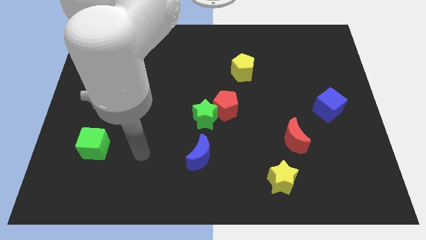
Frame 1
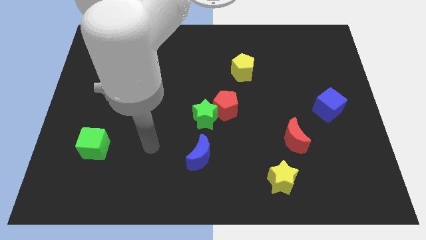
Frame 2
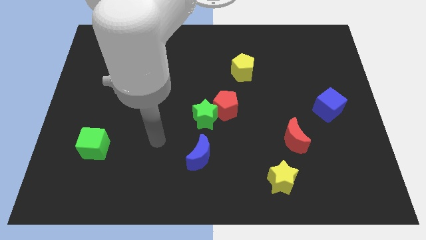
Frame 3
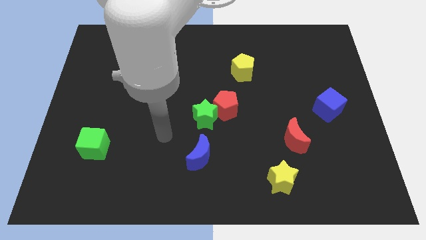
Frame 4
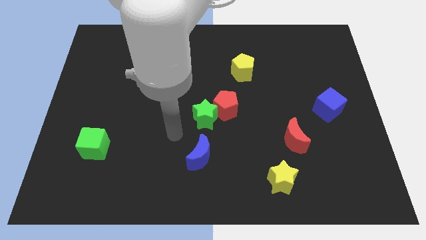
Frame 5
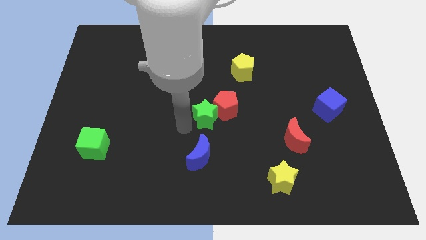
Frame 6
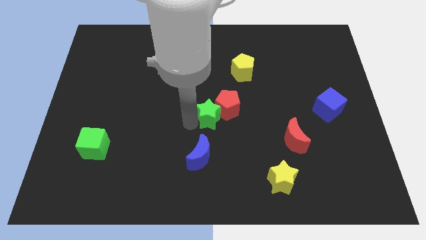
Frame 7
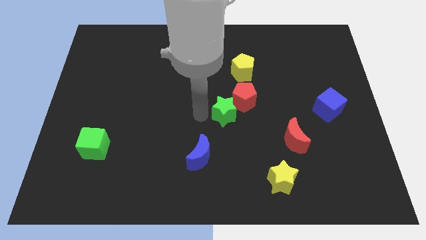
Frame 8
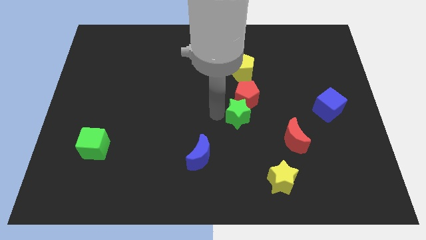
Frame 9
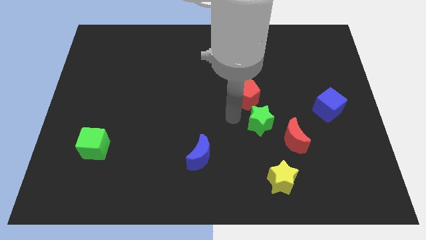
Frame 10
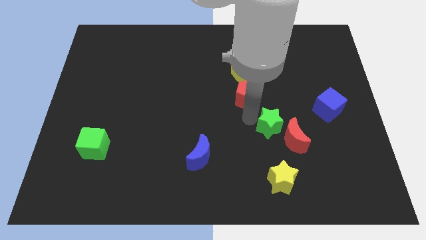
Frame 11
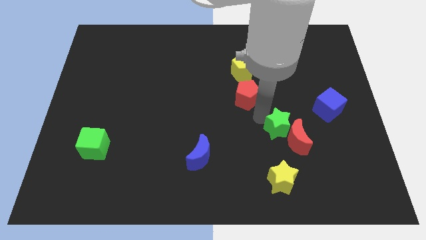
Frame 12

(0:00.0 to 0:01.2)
move the red pentagon away from the green star

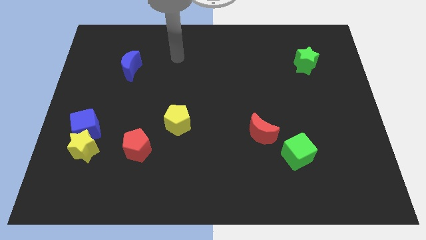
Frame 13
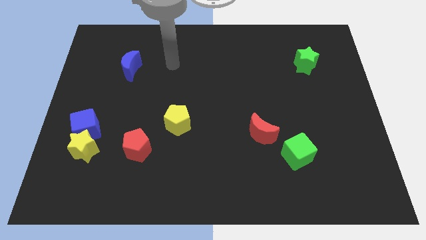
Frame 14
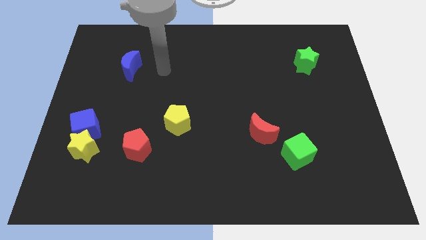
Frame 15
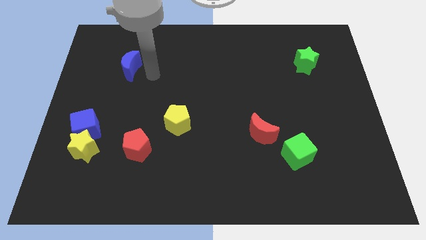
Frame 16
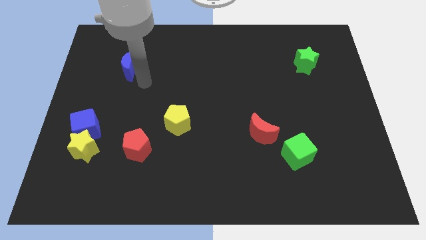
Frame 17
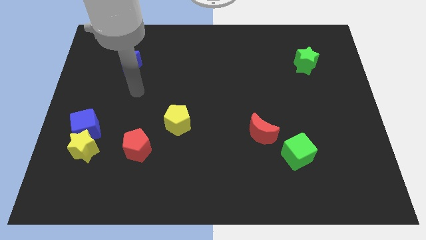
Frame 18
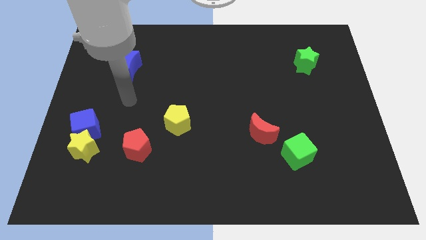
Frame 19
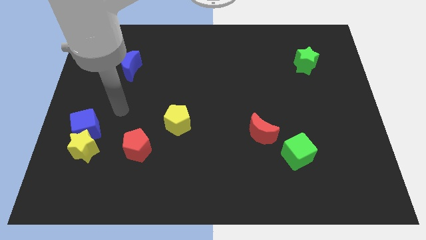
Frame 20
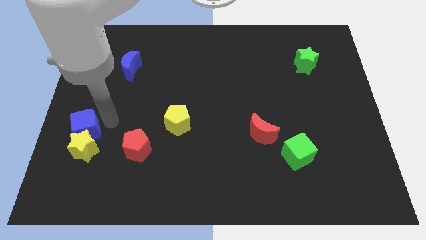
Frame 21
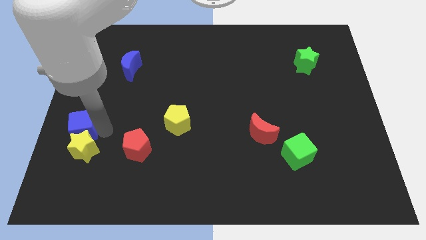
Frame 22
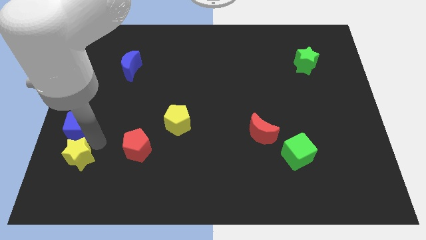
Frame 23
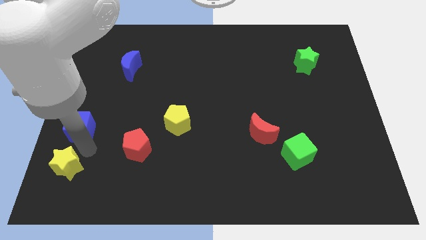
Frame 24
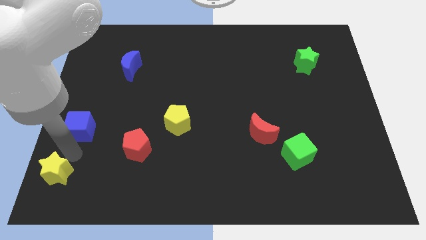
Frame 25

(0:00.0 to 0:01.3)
pull the blue cube apart from the yellow star

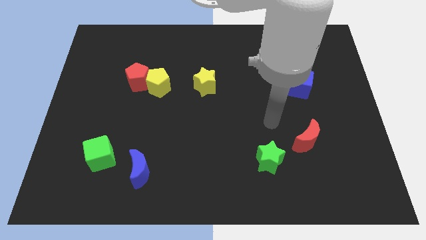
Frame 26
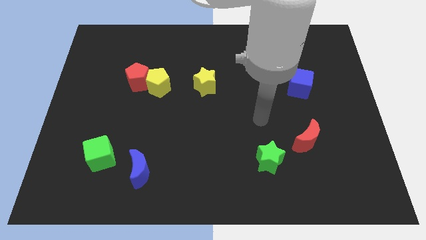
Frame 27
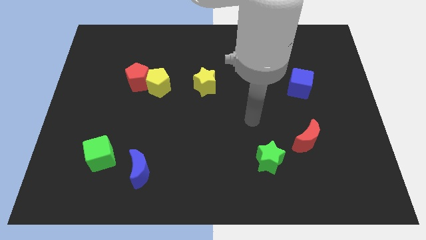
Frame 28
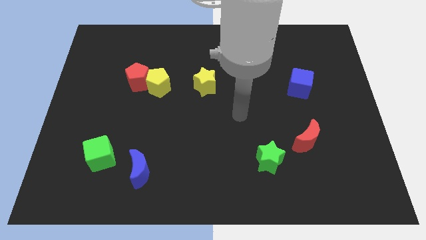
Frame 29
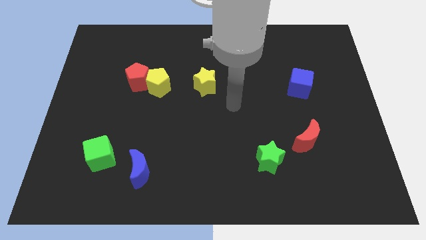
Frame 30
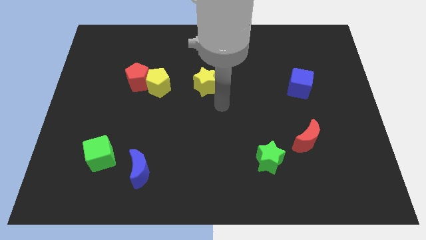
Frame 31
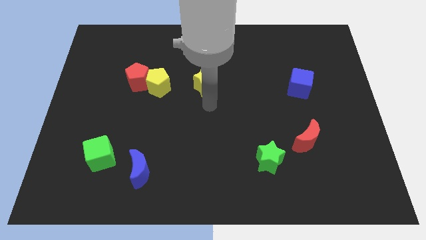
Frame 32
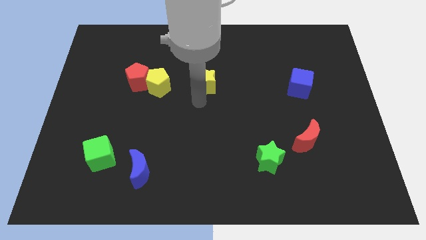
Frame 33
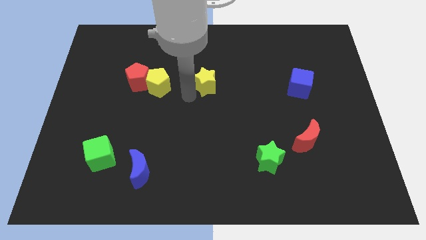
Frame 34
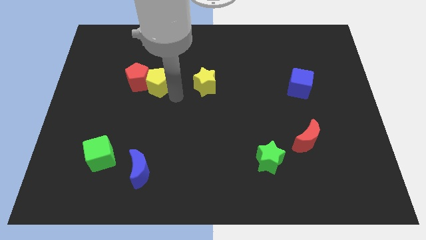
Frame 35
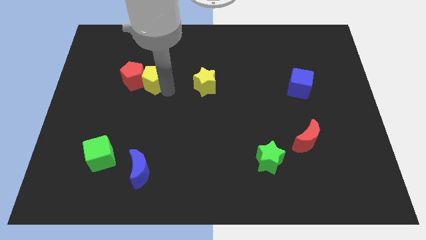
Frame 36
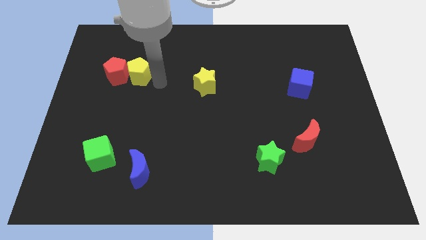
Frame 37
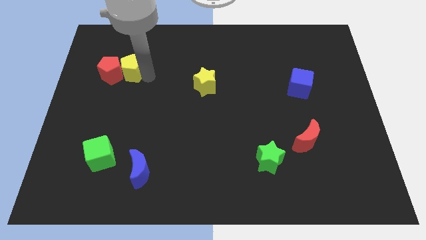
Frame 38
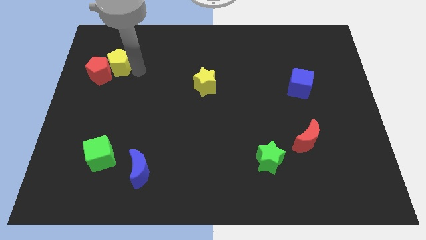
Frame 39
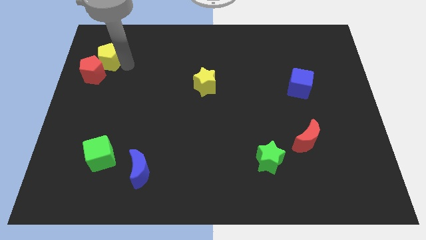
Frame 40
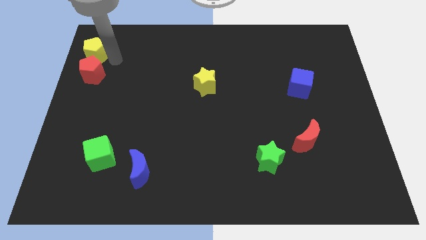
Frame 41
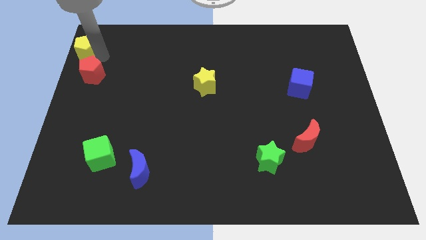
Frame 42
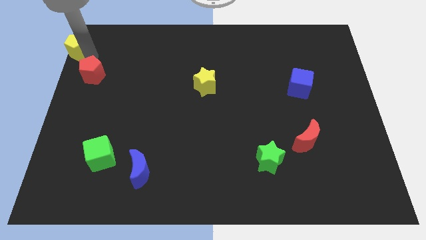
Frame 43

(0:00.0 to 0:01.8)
separate the red pentagon from the yellow pentagon

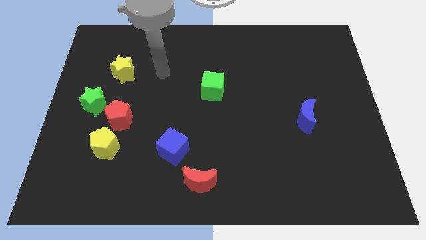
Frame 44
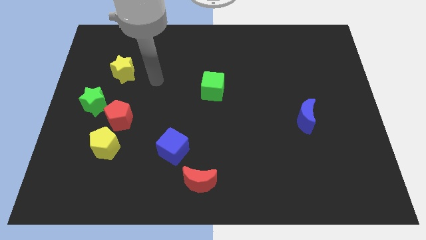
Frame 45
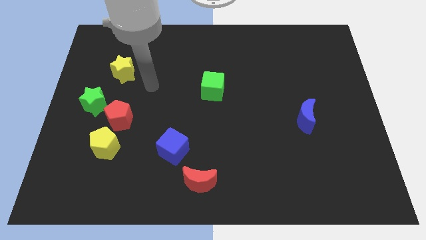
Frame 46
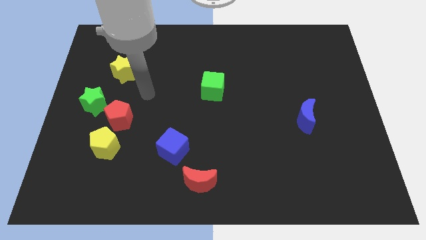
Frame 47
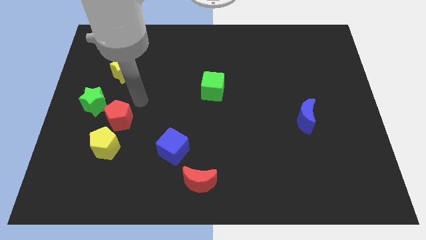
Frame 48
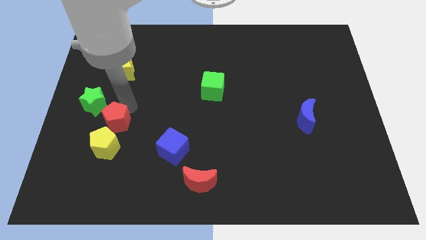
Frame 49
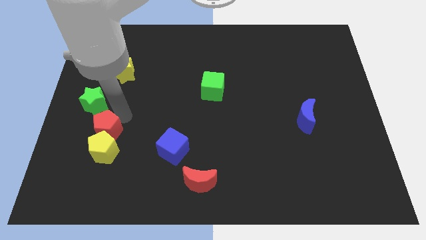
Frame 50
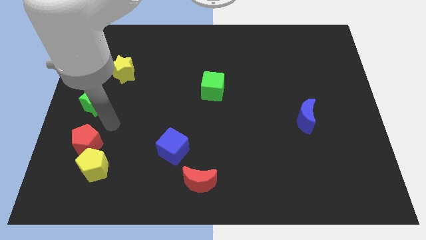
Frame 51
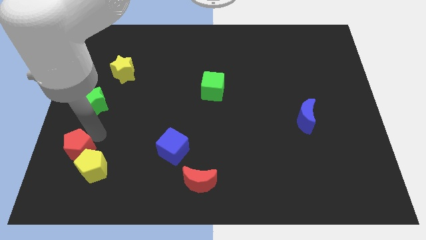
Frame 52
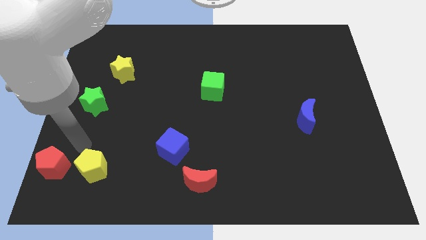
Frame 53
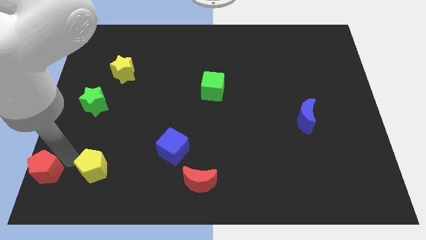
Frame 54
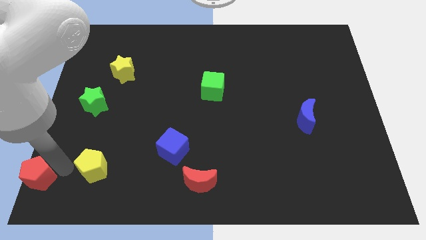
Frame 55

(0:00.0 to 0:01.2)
separate the yellow pentagon from the red pentagon

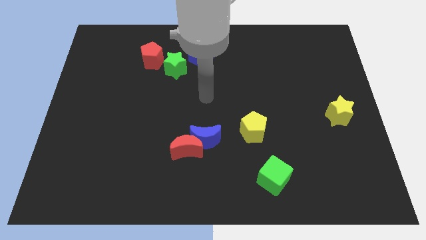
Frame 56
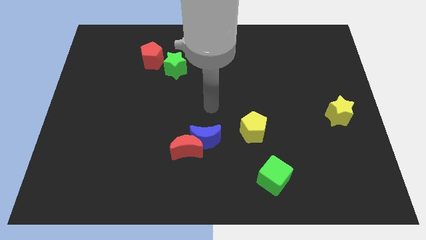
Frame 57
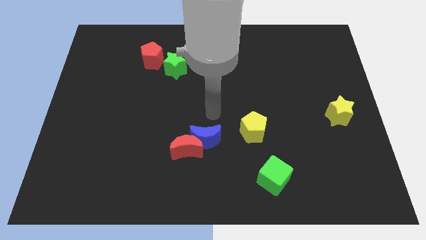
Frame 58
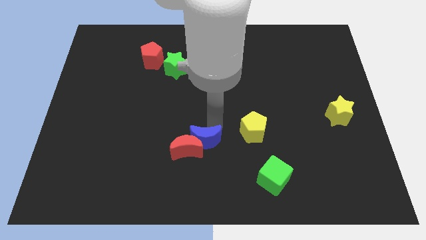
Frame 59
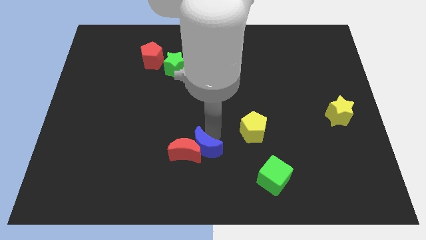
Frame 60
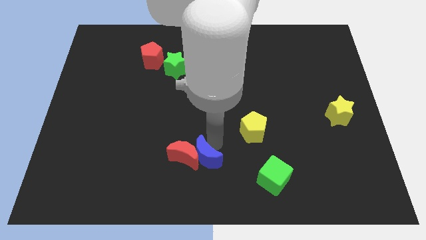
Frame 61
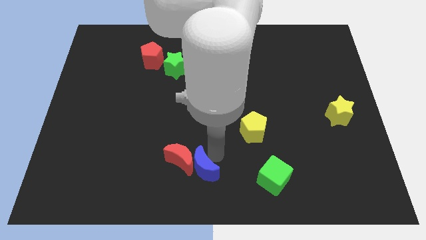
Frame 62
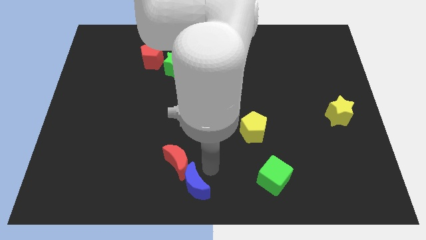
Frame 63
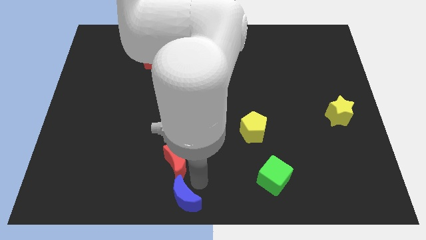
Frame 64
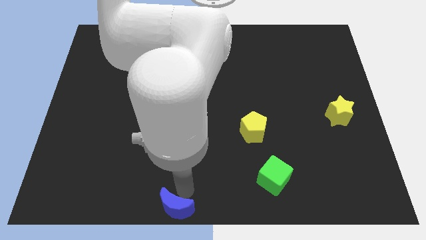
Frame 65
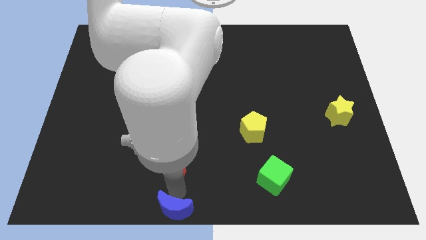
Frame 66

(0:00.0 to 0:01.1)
separate the red moon from the blue moon

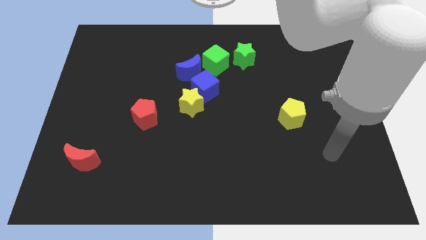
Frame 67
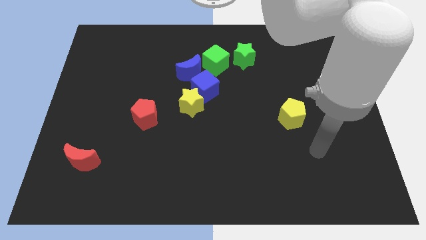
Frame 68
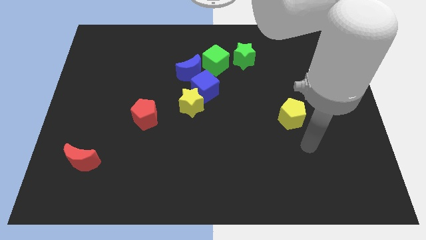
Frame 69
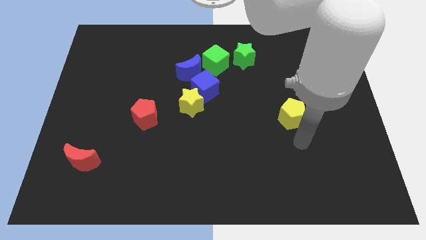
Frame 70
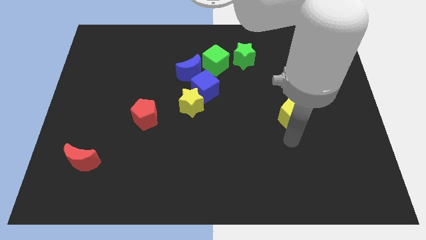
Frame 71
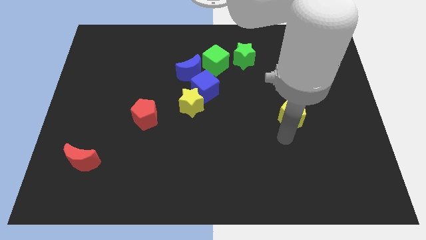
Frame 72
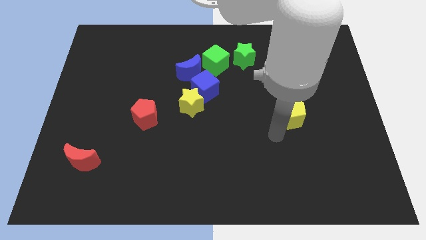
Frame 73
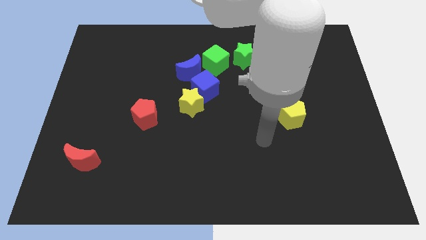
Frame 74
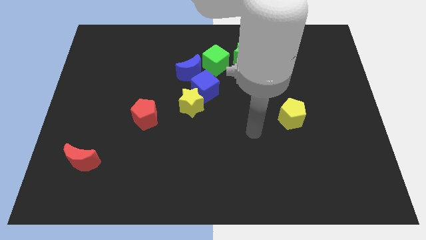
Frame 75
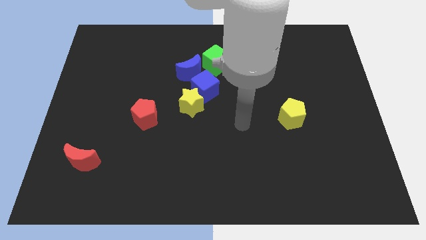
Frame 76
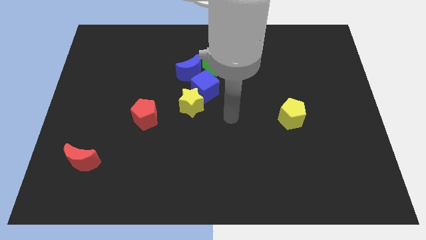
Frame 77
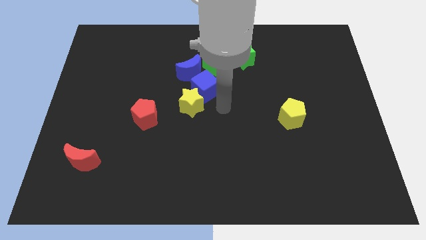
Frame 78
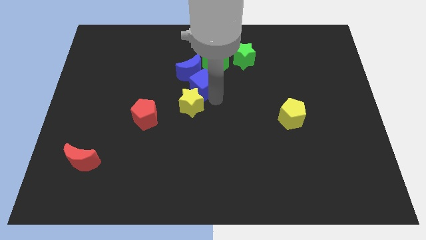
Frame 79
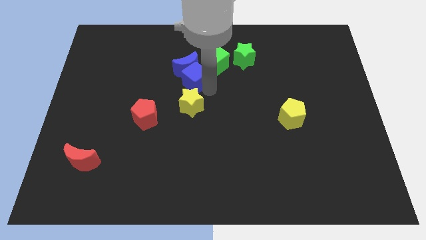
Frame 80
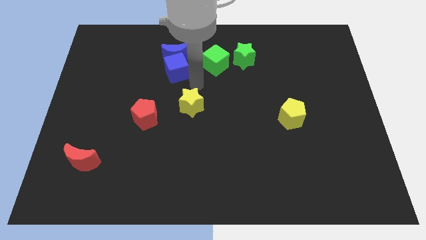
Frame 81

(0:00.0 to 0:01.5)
move the yellow star away from the blue cube

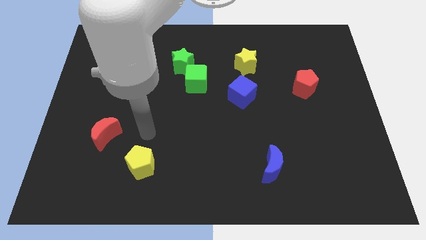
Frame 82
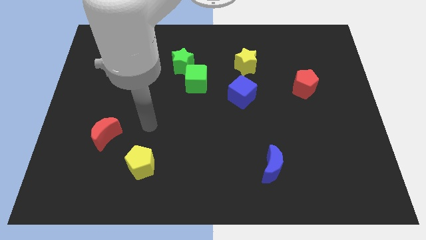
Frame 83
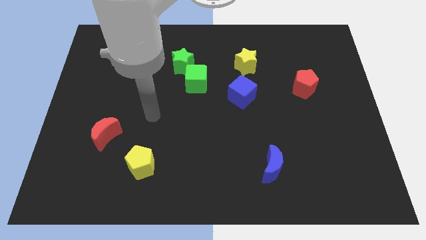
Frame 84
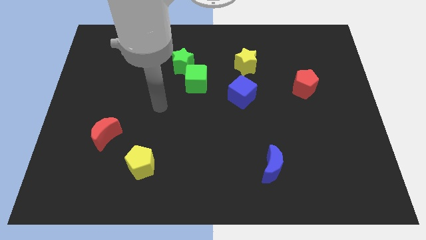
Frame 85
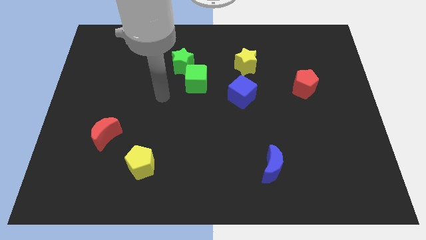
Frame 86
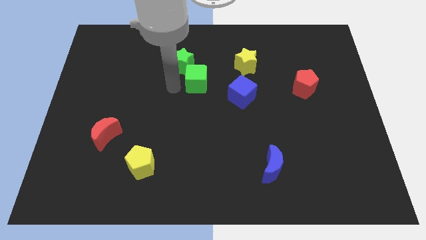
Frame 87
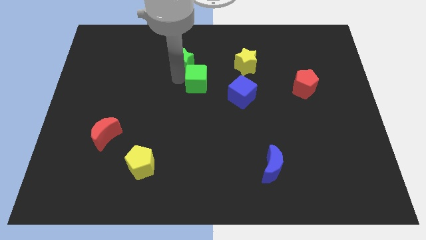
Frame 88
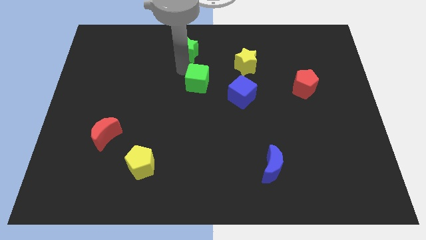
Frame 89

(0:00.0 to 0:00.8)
move the green cube away from the green star

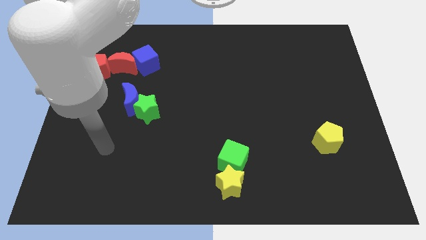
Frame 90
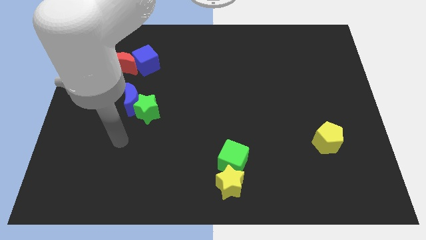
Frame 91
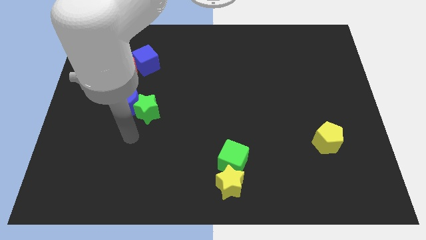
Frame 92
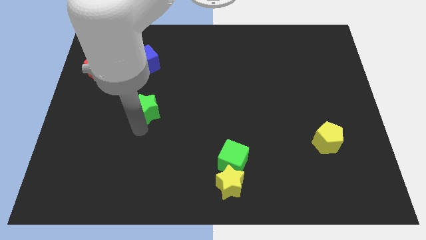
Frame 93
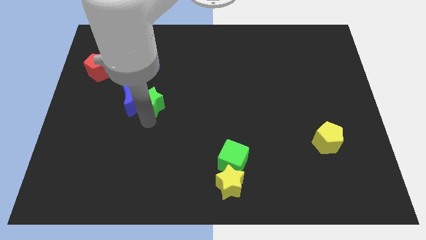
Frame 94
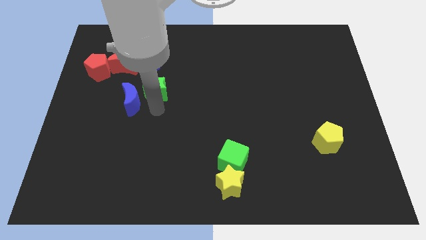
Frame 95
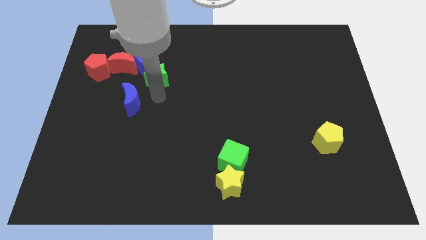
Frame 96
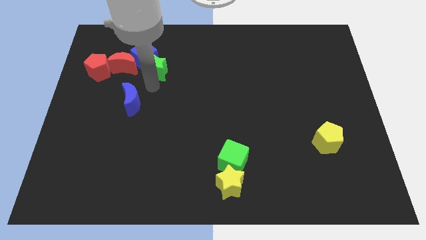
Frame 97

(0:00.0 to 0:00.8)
move the blue moon away from the green star
